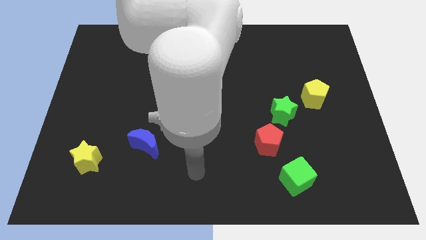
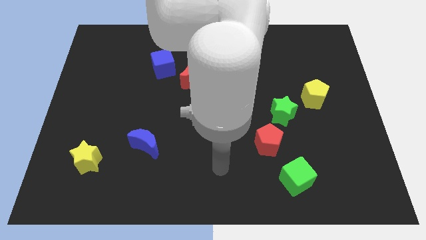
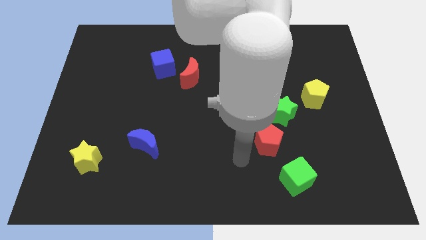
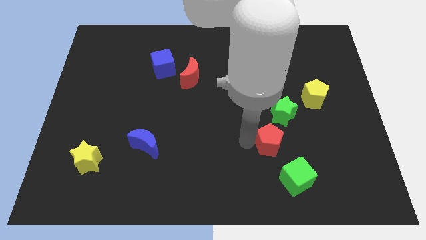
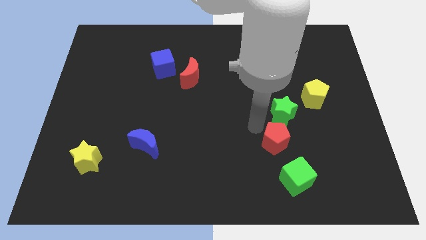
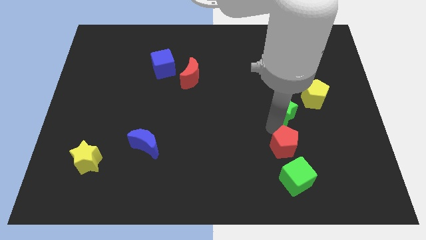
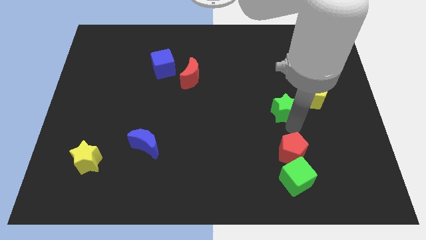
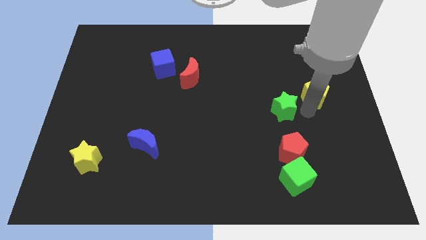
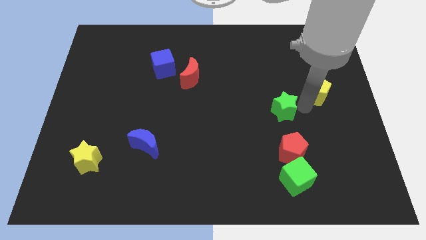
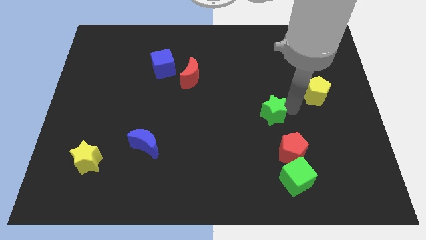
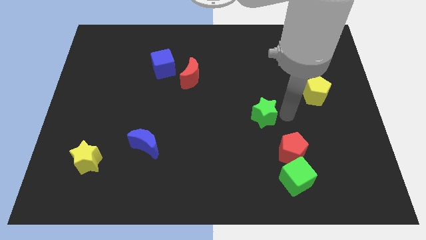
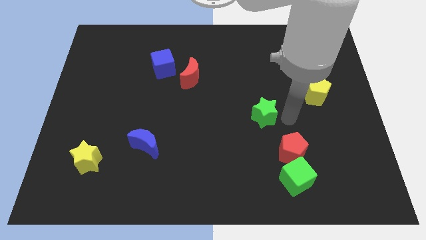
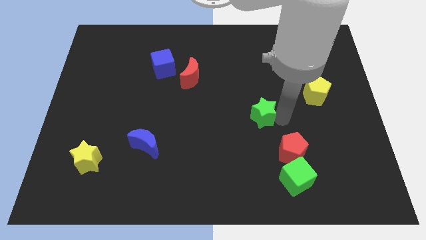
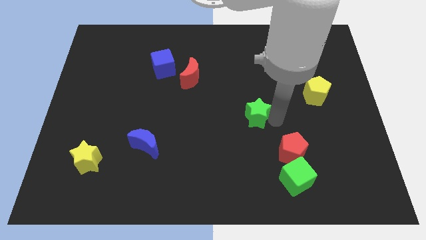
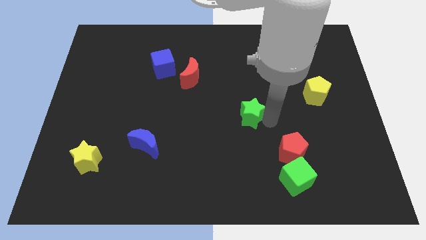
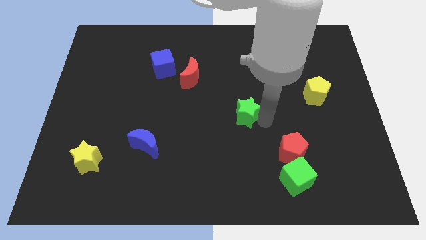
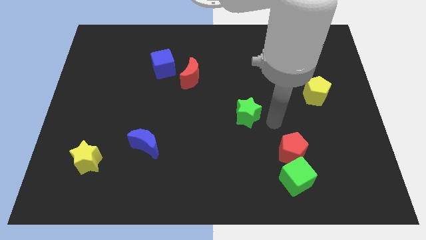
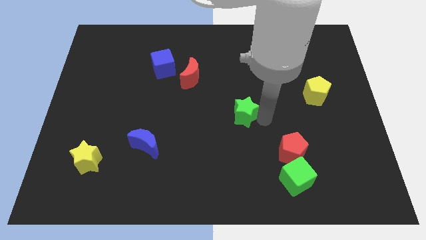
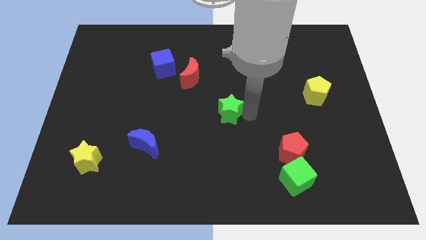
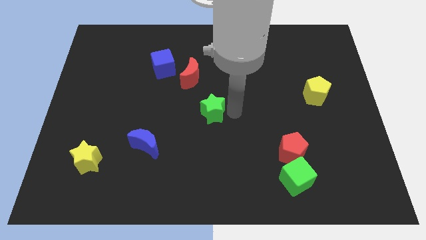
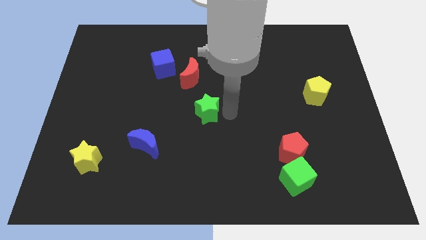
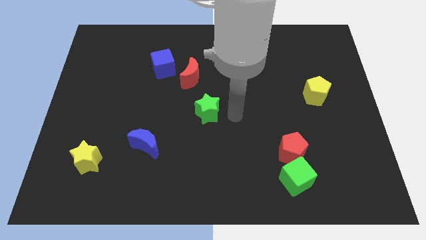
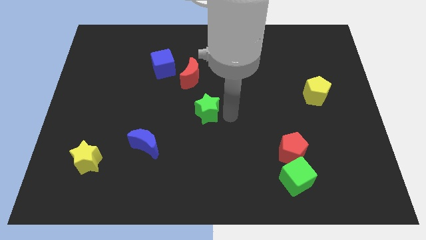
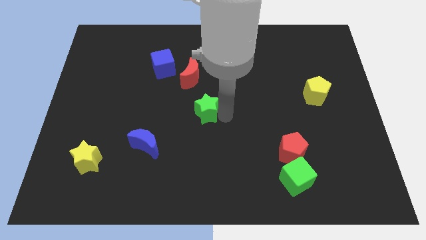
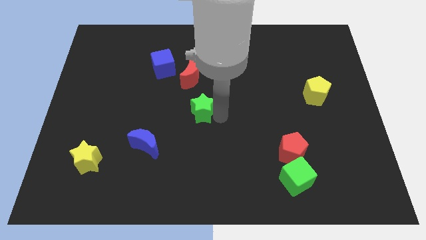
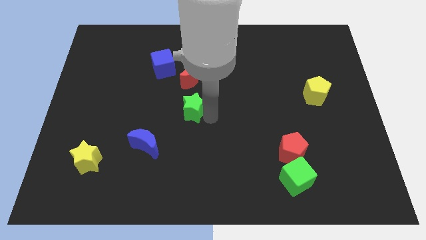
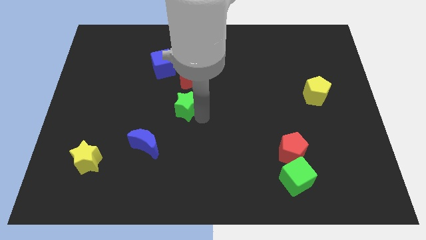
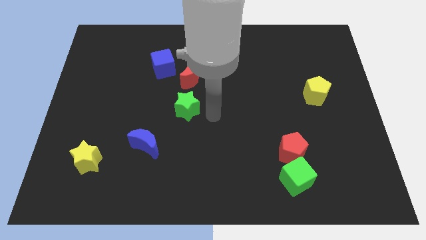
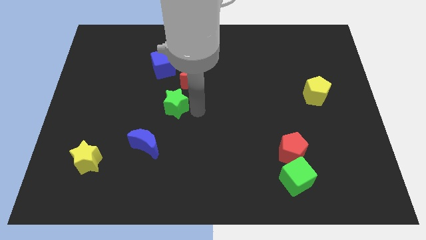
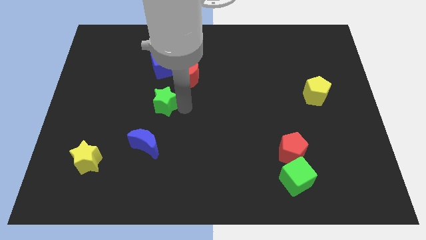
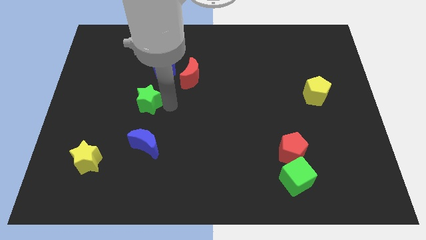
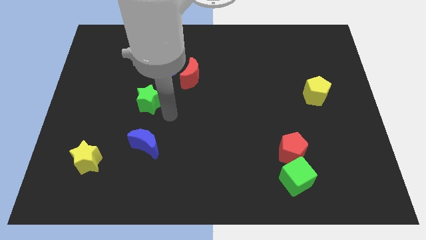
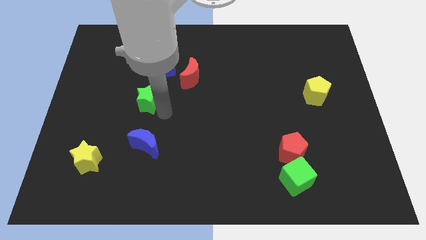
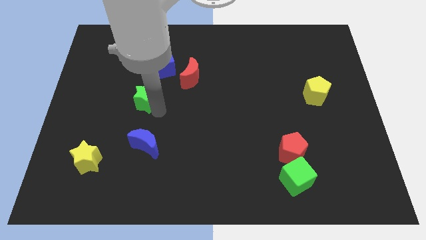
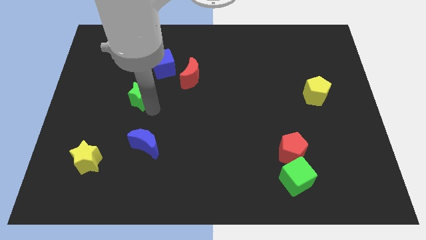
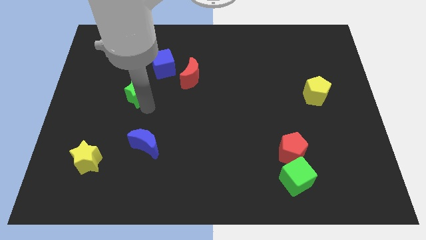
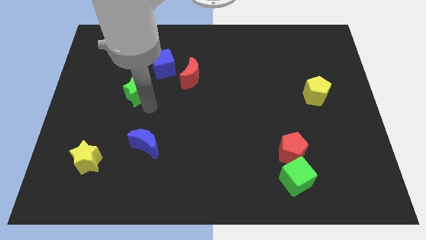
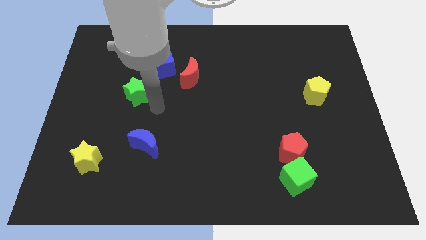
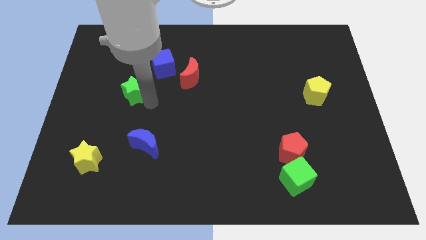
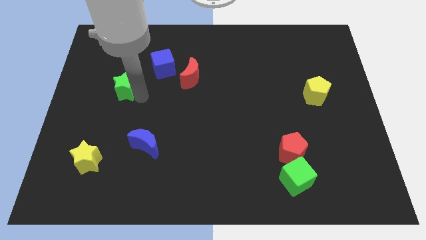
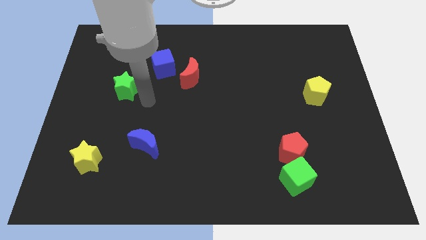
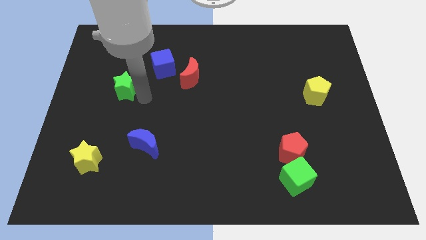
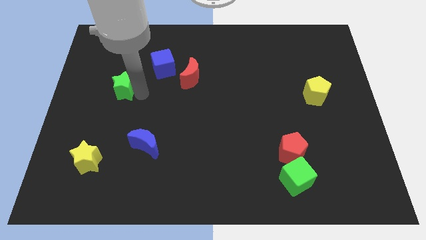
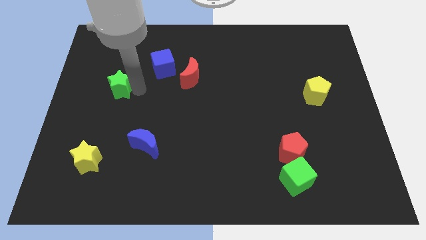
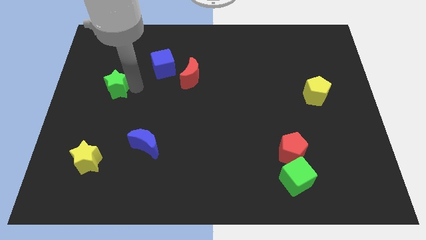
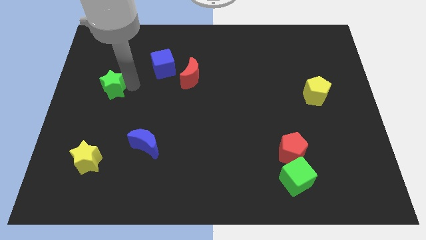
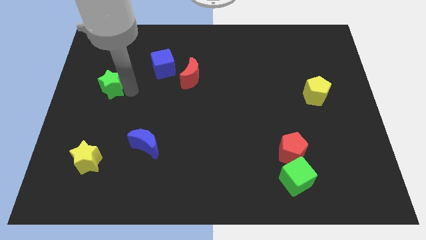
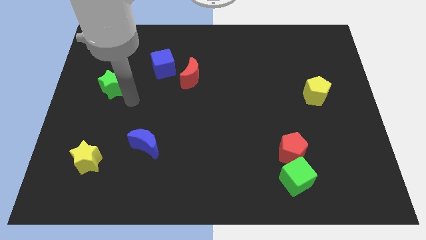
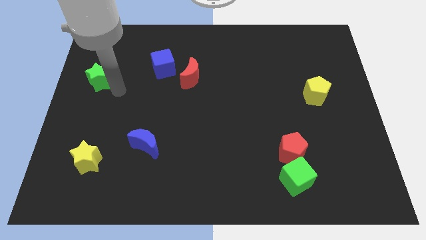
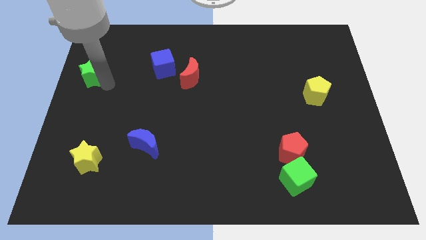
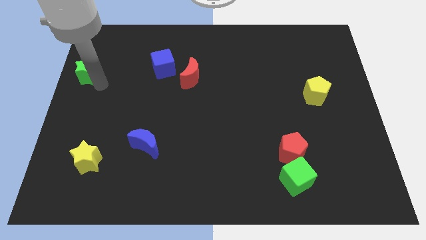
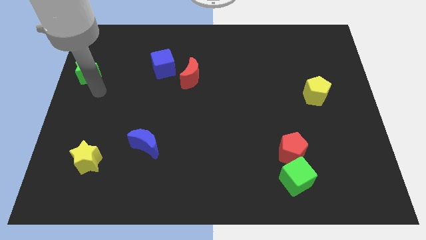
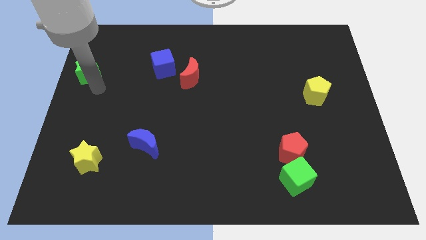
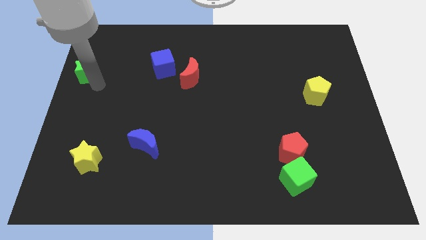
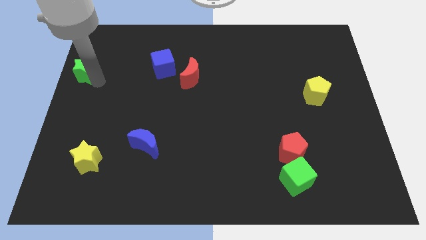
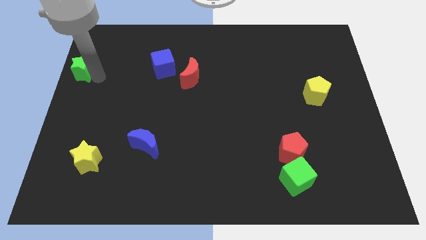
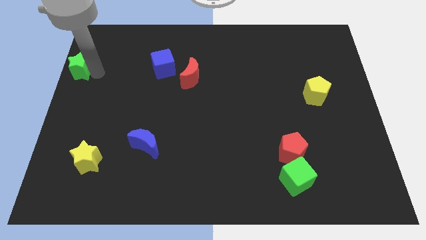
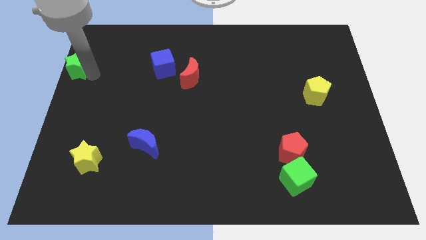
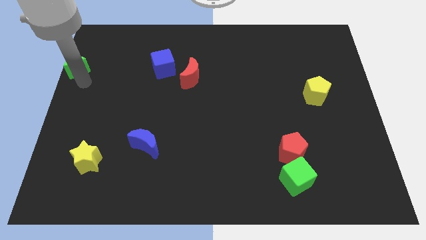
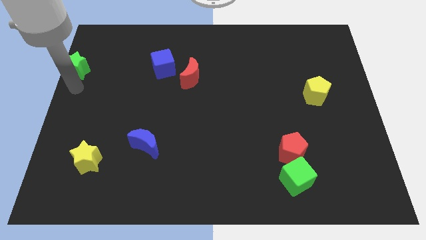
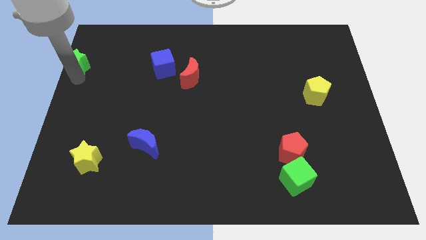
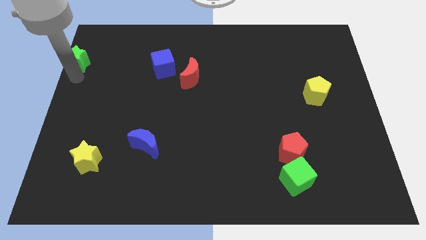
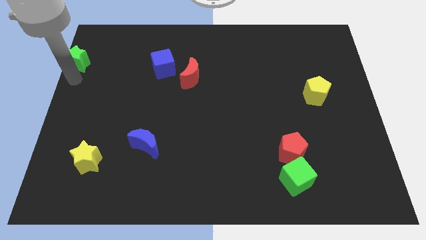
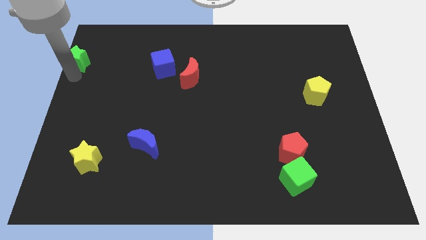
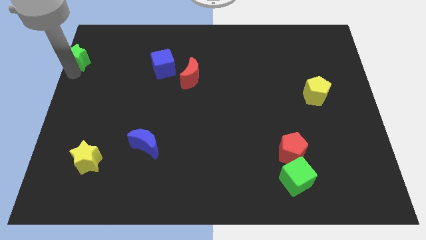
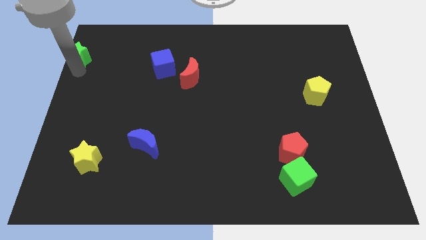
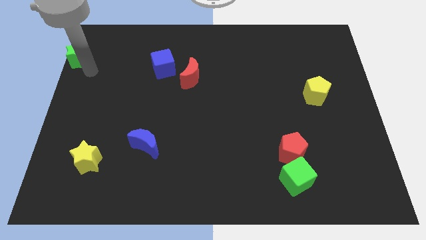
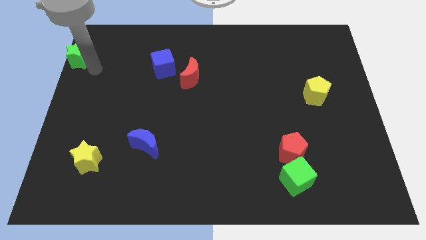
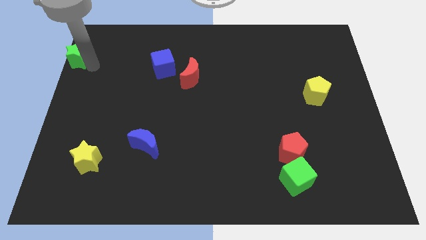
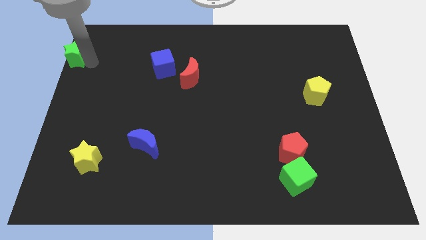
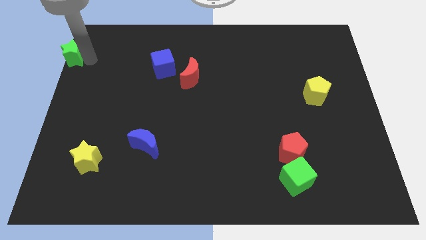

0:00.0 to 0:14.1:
slide the green star to the top left corner
